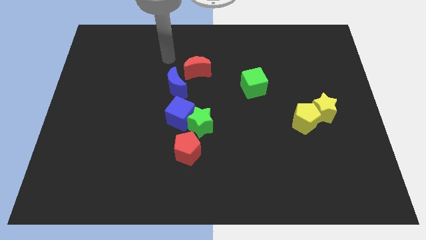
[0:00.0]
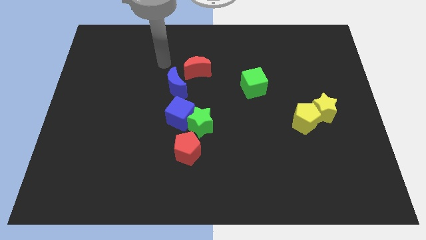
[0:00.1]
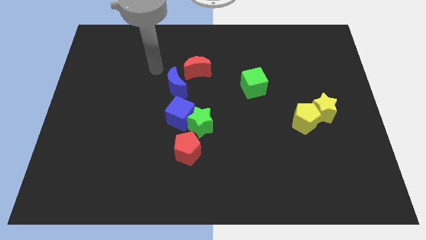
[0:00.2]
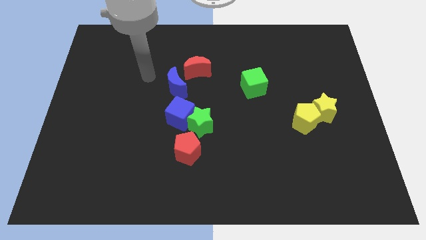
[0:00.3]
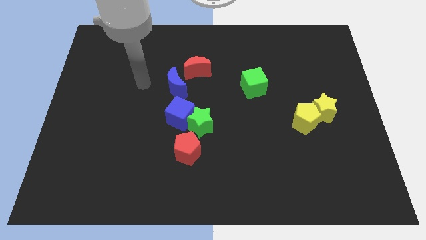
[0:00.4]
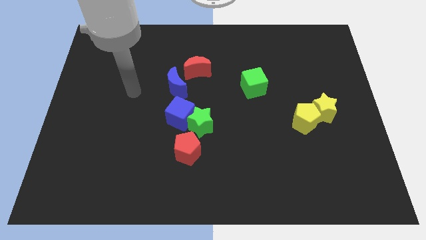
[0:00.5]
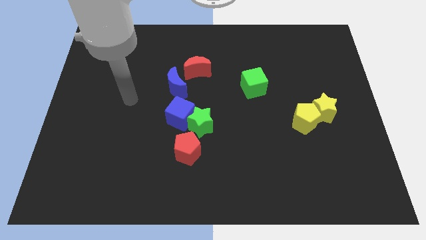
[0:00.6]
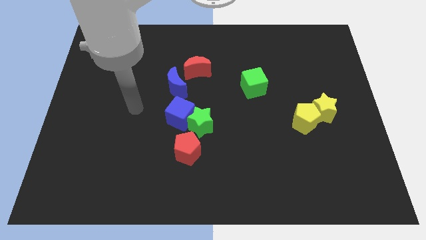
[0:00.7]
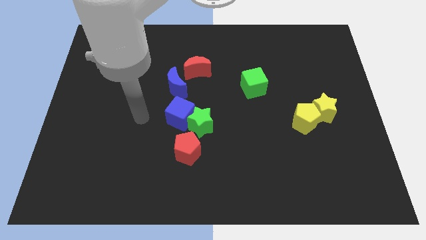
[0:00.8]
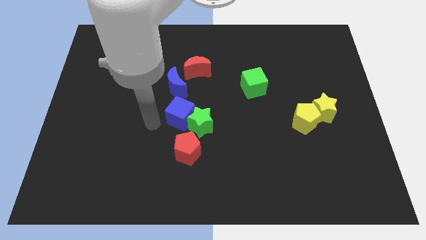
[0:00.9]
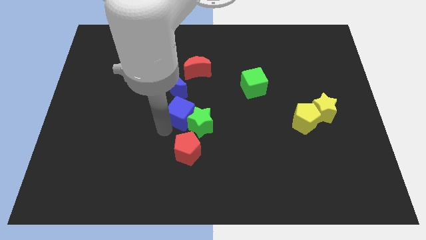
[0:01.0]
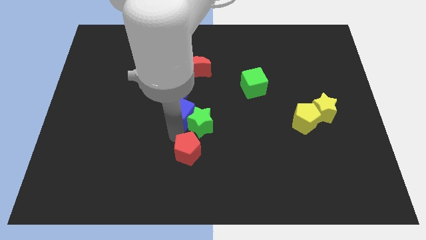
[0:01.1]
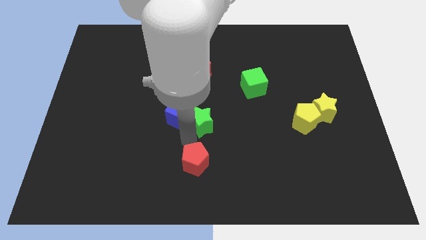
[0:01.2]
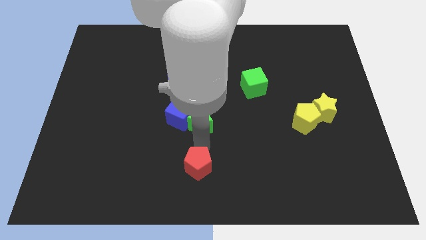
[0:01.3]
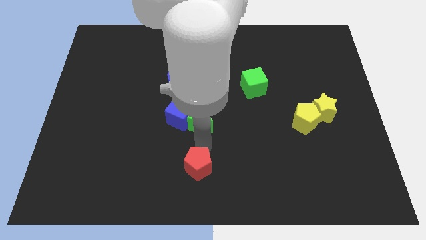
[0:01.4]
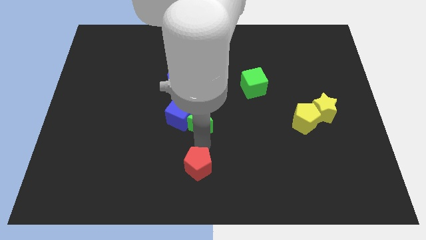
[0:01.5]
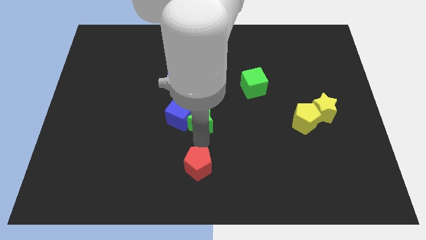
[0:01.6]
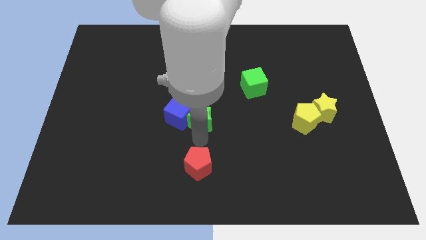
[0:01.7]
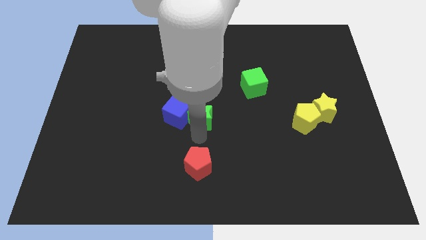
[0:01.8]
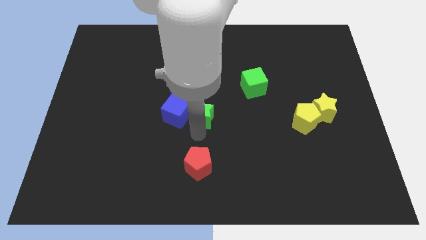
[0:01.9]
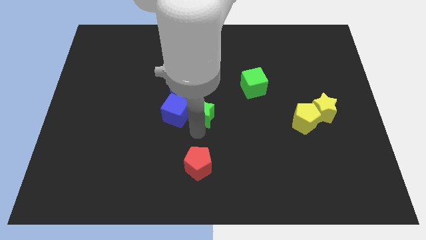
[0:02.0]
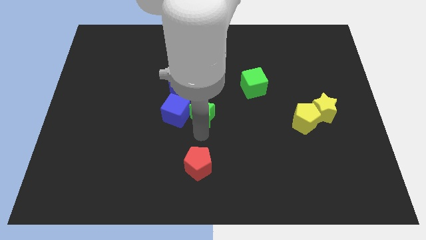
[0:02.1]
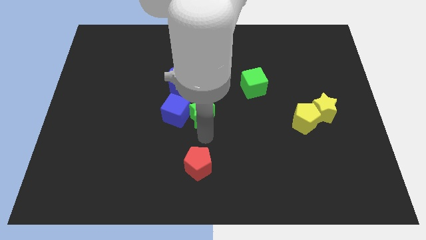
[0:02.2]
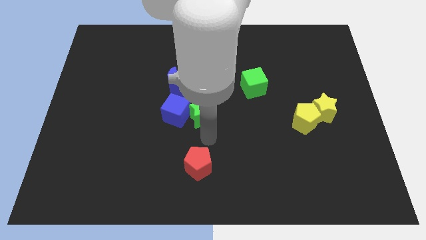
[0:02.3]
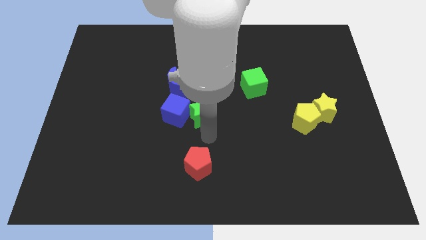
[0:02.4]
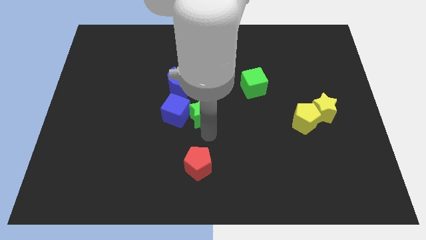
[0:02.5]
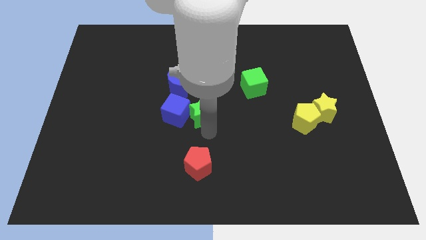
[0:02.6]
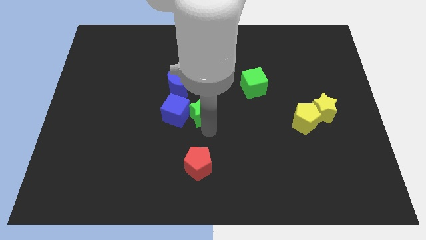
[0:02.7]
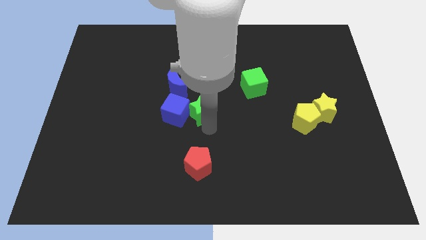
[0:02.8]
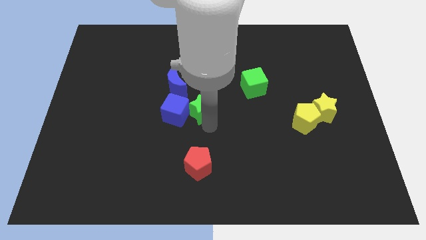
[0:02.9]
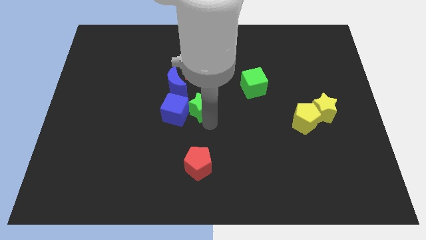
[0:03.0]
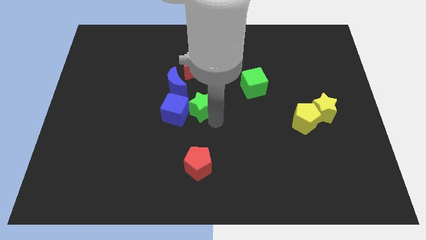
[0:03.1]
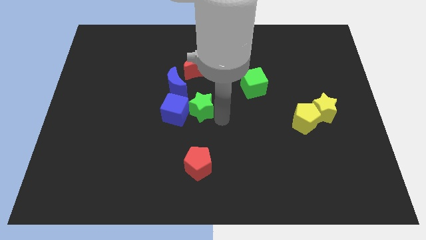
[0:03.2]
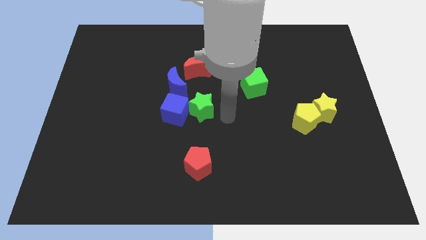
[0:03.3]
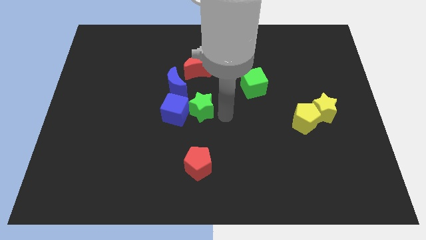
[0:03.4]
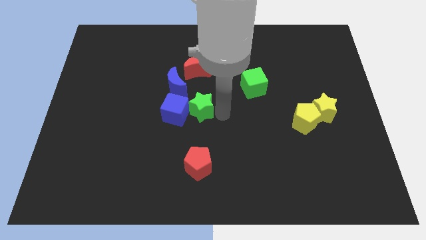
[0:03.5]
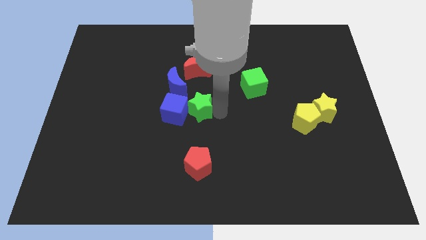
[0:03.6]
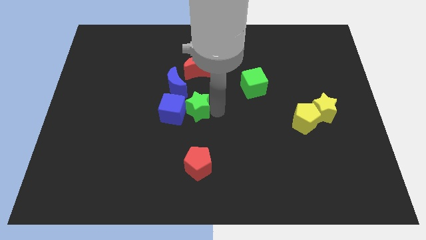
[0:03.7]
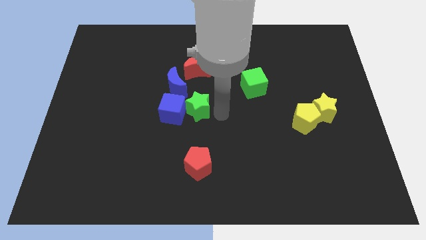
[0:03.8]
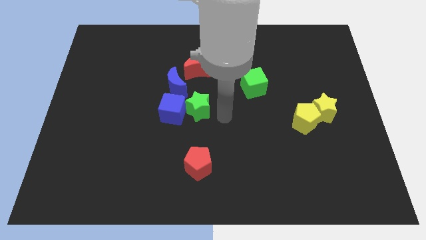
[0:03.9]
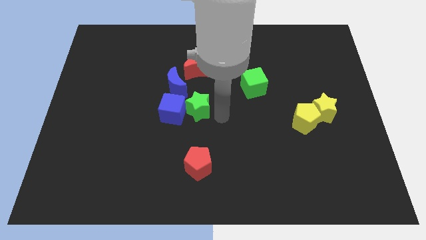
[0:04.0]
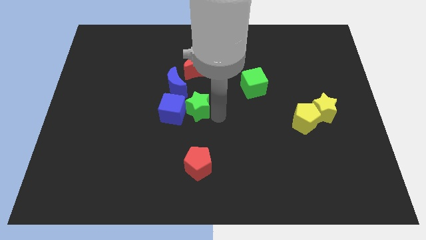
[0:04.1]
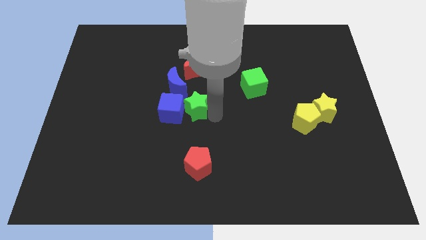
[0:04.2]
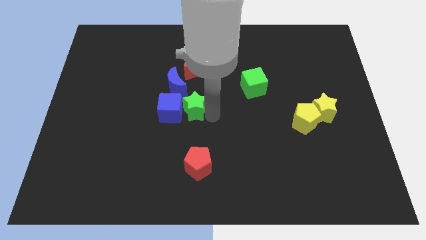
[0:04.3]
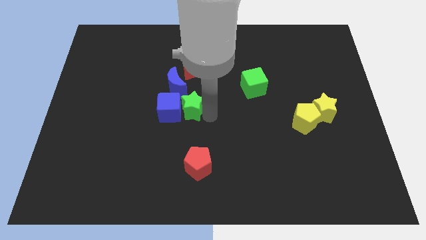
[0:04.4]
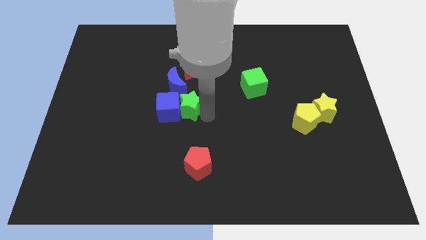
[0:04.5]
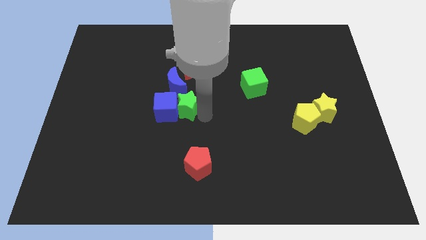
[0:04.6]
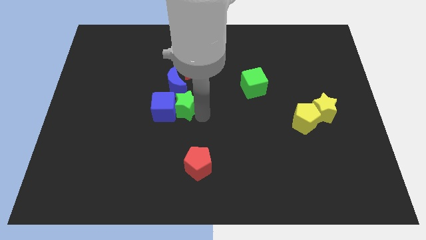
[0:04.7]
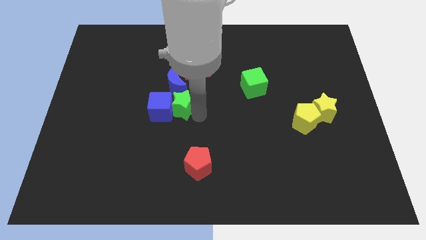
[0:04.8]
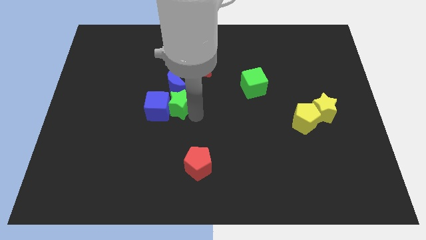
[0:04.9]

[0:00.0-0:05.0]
push the green star somewhat up and to the left diagonally

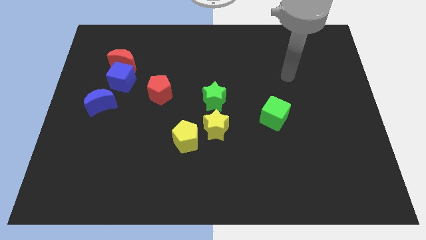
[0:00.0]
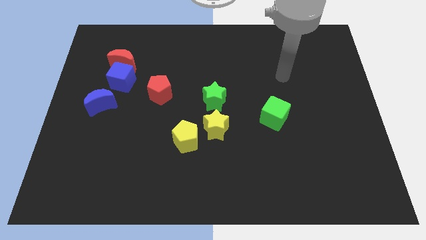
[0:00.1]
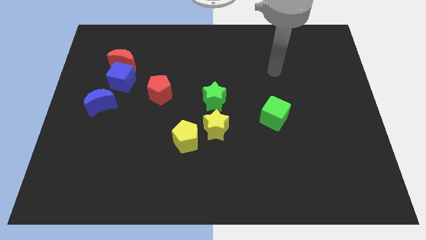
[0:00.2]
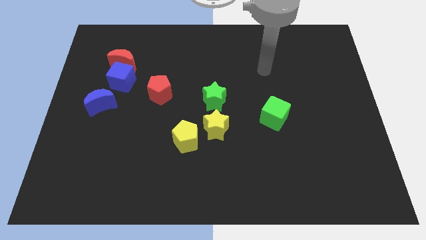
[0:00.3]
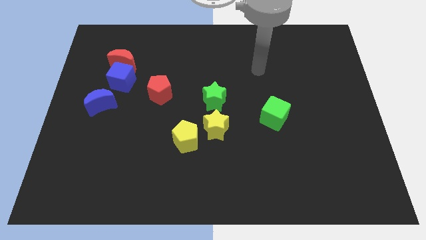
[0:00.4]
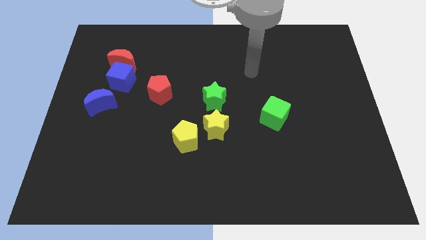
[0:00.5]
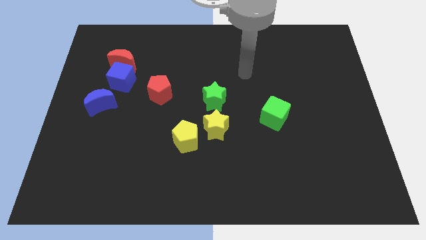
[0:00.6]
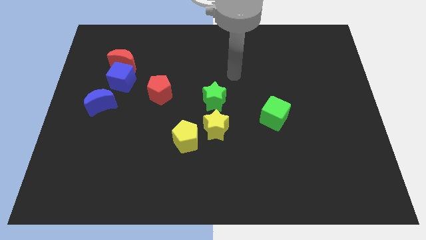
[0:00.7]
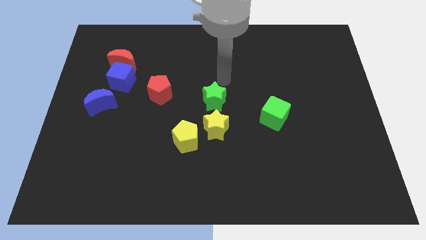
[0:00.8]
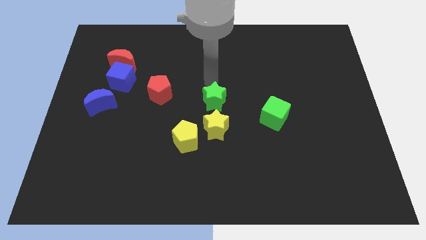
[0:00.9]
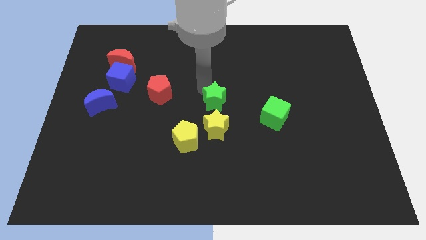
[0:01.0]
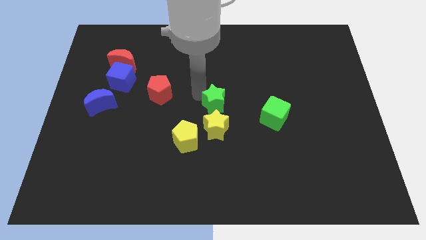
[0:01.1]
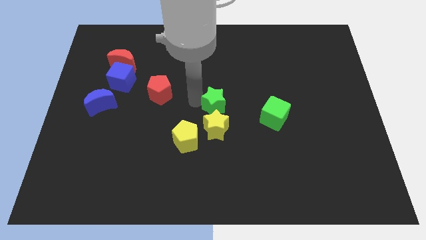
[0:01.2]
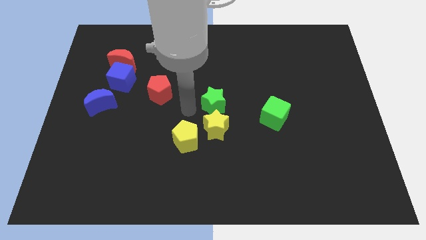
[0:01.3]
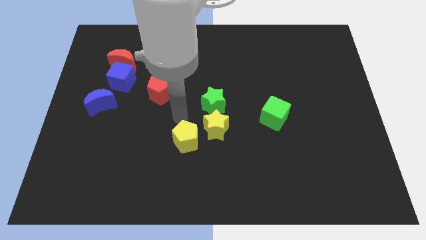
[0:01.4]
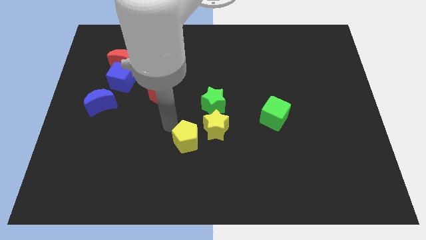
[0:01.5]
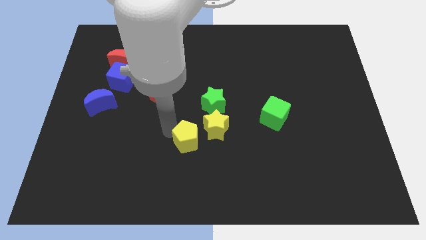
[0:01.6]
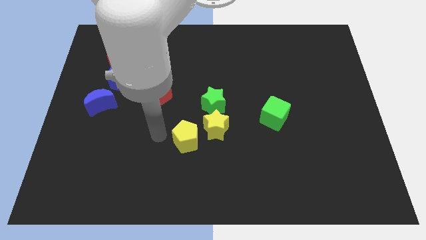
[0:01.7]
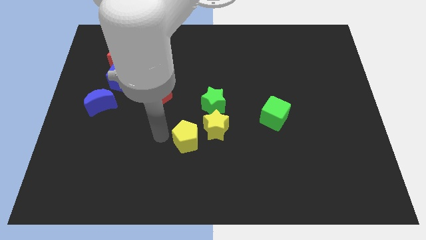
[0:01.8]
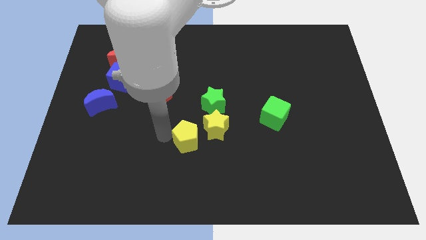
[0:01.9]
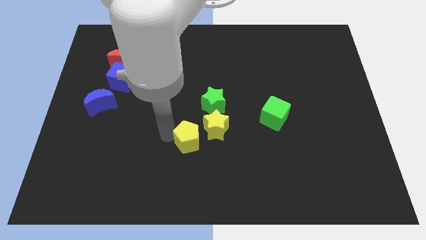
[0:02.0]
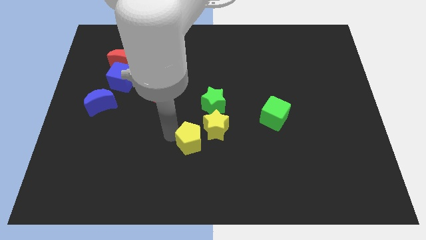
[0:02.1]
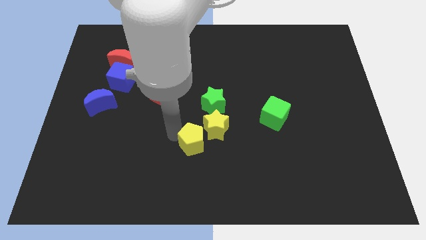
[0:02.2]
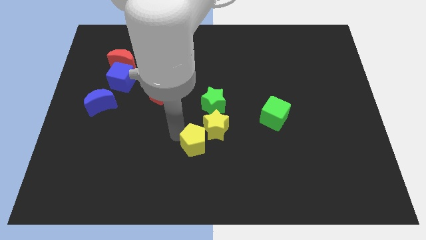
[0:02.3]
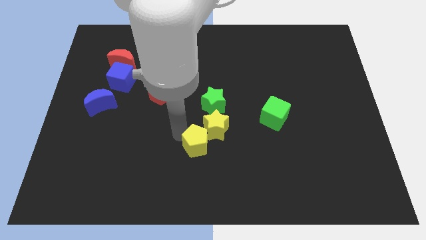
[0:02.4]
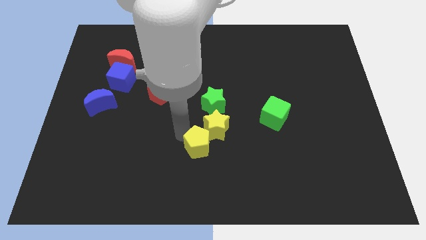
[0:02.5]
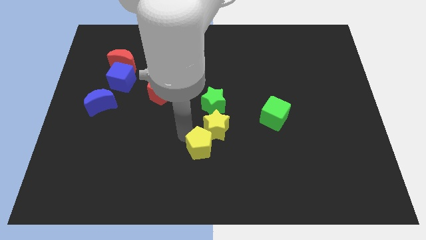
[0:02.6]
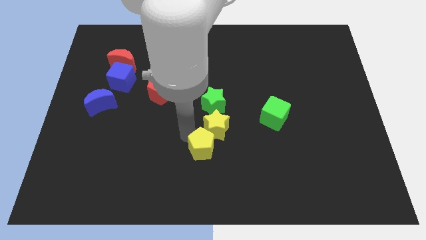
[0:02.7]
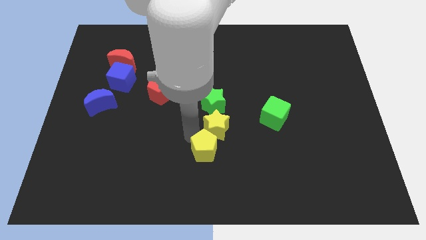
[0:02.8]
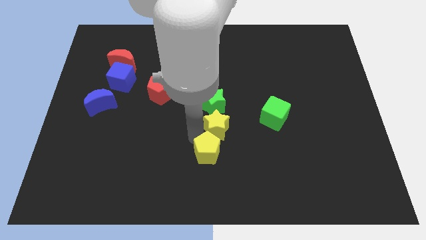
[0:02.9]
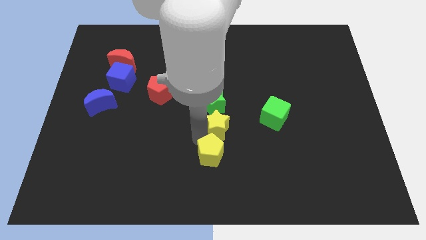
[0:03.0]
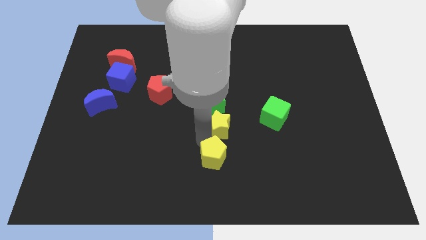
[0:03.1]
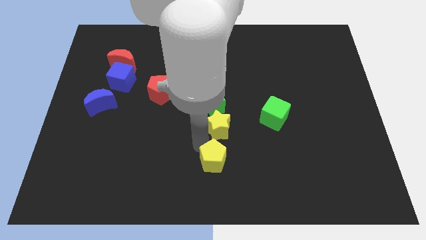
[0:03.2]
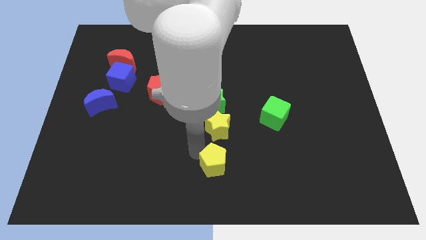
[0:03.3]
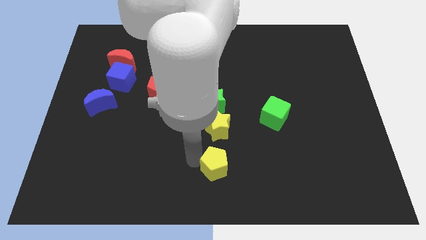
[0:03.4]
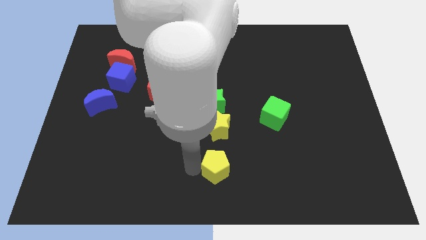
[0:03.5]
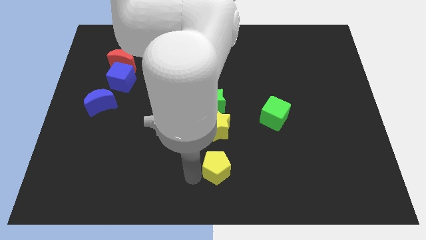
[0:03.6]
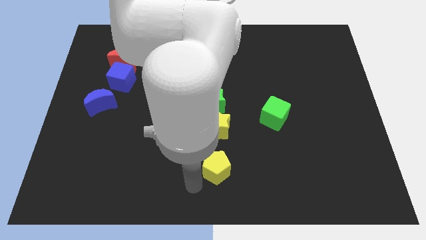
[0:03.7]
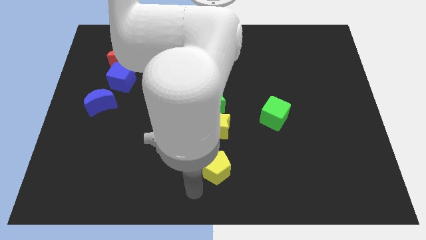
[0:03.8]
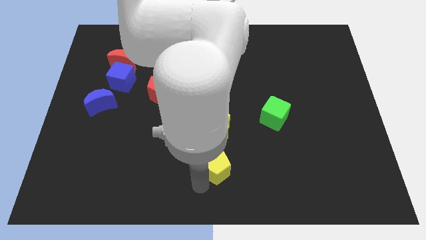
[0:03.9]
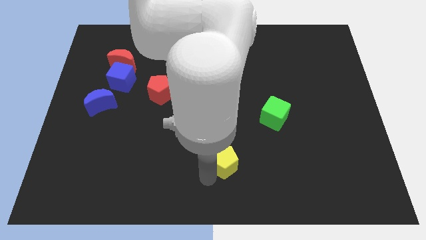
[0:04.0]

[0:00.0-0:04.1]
move the yellow pentagon a bit right
